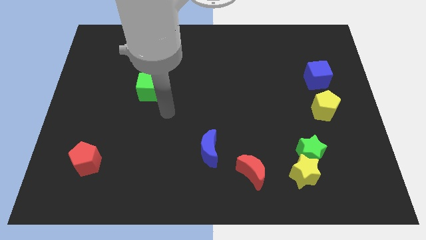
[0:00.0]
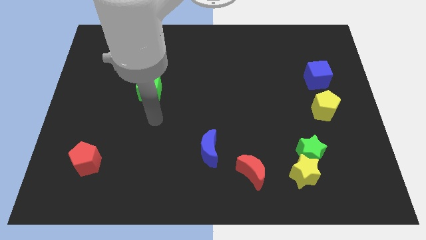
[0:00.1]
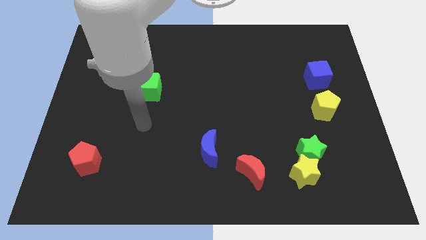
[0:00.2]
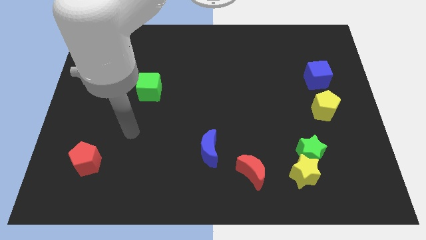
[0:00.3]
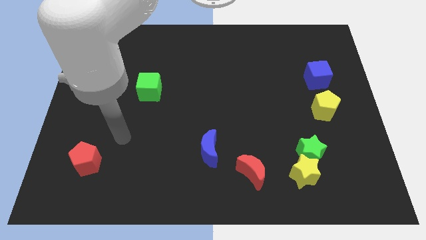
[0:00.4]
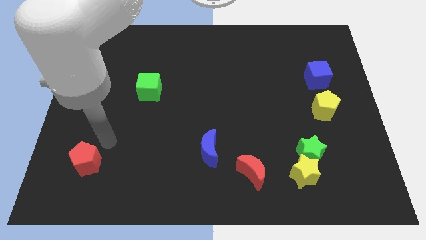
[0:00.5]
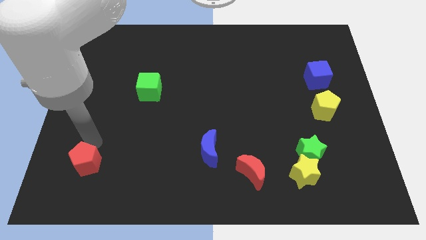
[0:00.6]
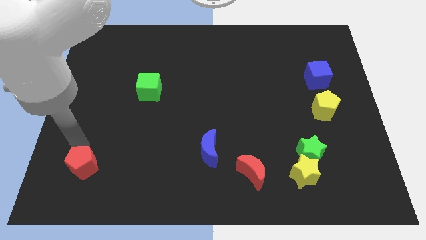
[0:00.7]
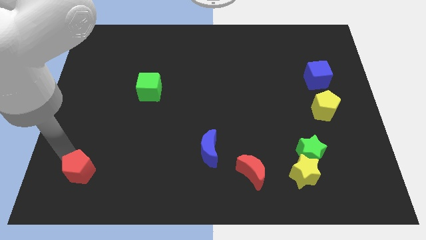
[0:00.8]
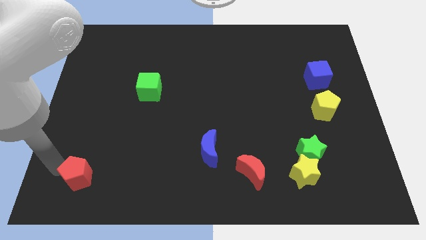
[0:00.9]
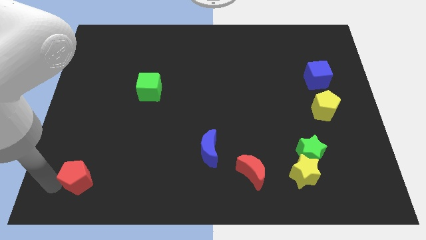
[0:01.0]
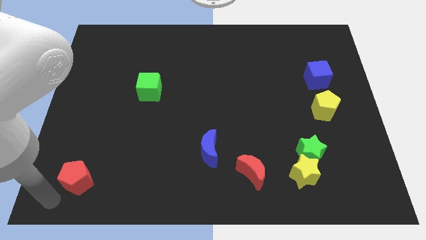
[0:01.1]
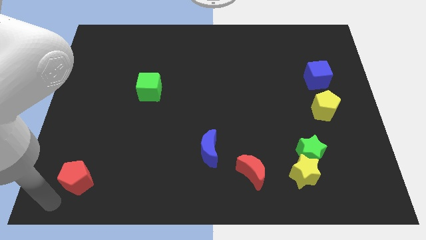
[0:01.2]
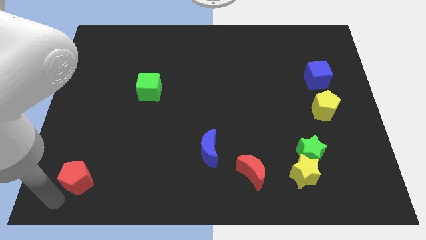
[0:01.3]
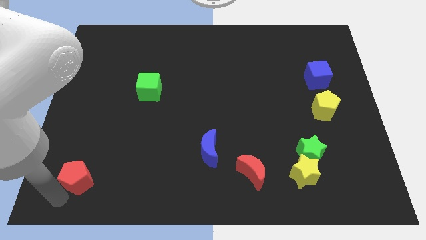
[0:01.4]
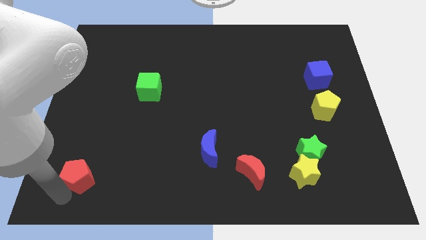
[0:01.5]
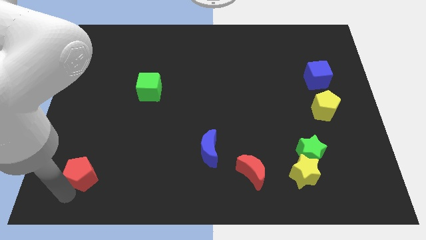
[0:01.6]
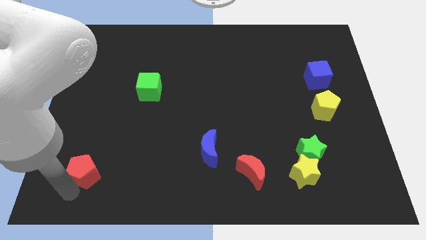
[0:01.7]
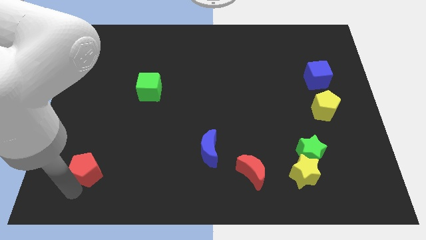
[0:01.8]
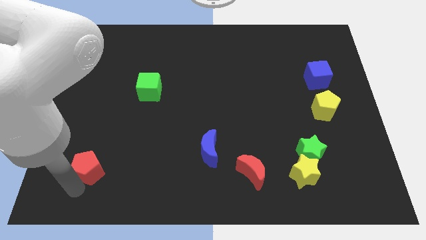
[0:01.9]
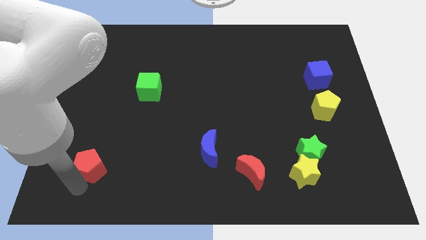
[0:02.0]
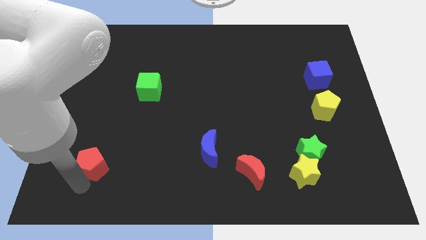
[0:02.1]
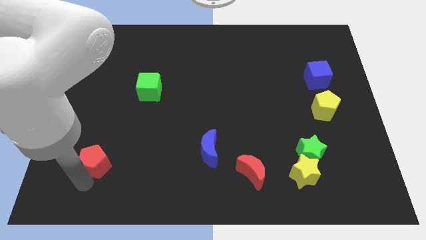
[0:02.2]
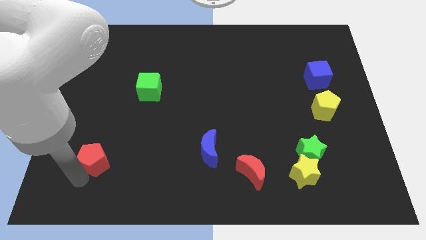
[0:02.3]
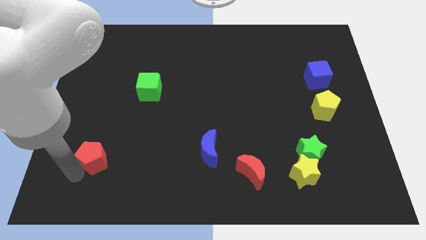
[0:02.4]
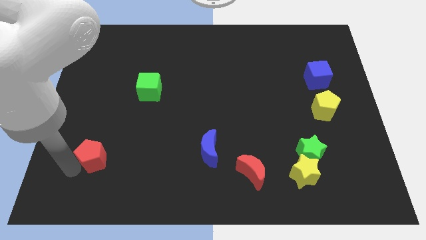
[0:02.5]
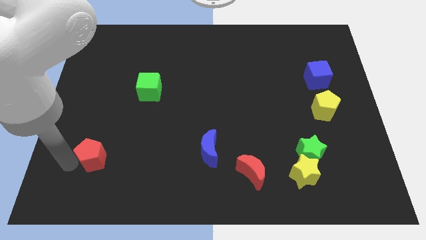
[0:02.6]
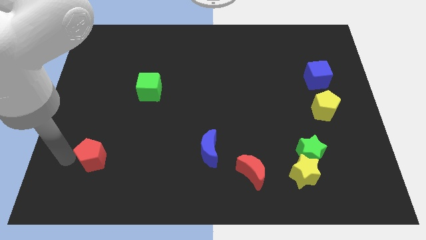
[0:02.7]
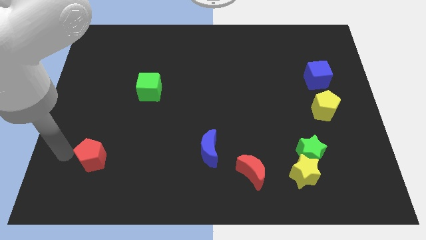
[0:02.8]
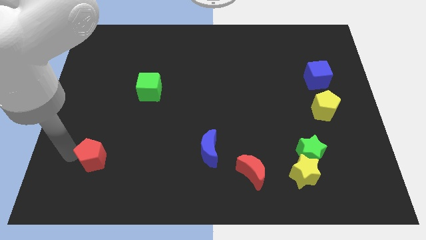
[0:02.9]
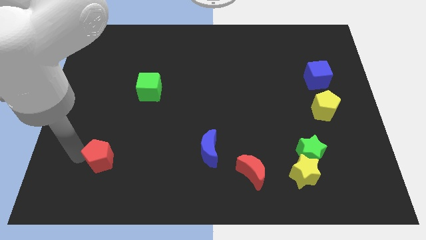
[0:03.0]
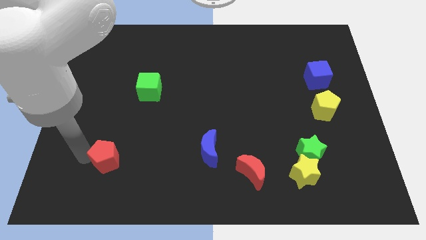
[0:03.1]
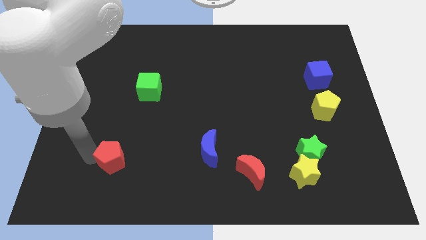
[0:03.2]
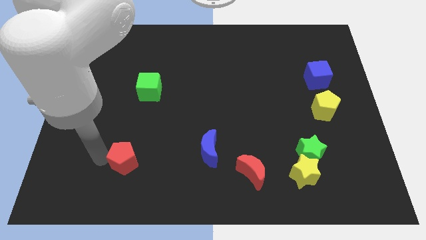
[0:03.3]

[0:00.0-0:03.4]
slightly push the red pentagon right

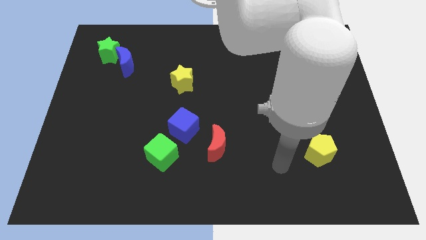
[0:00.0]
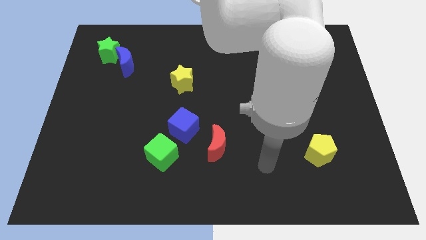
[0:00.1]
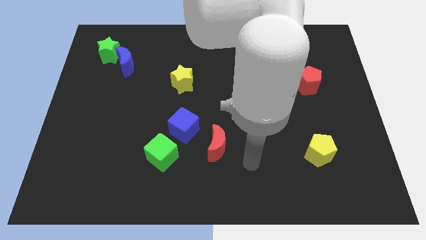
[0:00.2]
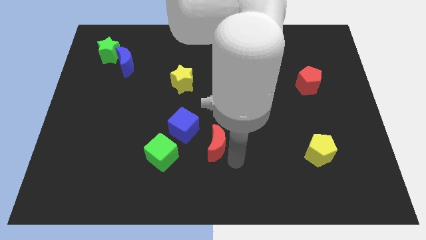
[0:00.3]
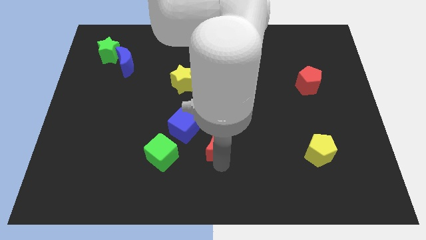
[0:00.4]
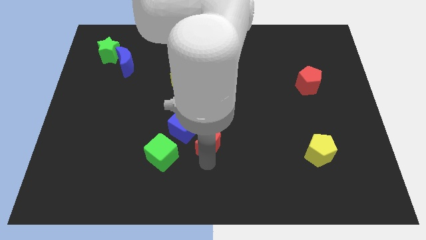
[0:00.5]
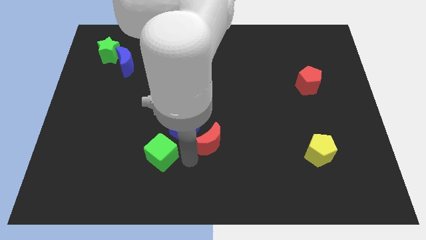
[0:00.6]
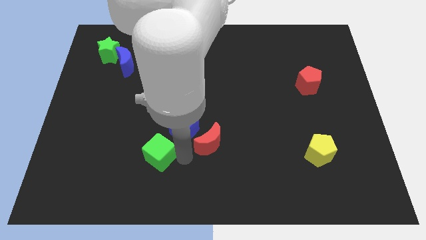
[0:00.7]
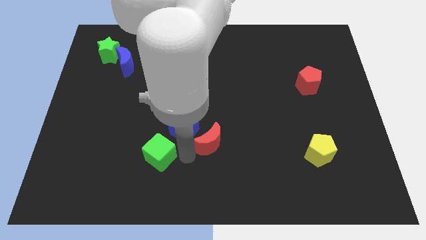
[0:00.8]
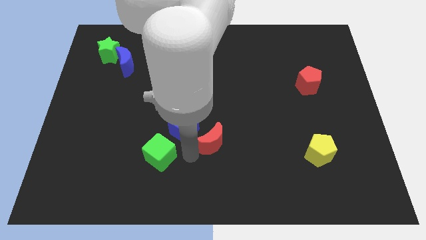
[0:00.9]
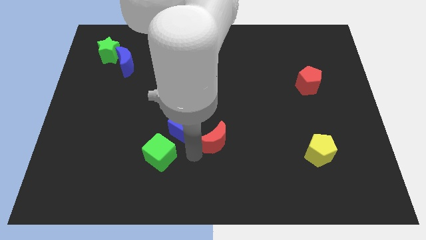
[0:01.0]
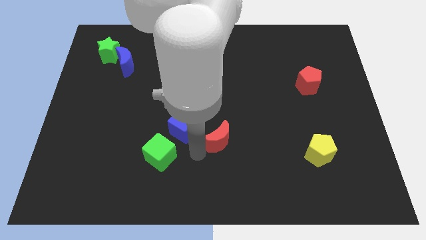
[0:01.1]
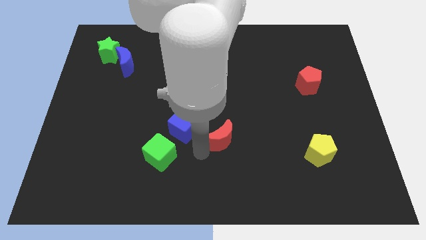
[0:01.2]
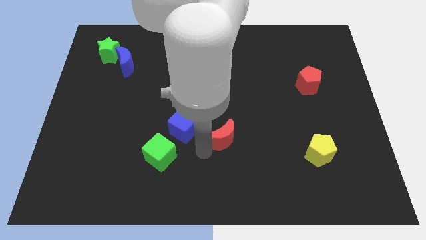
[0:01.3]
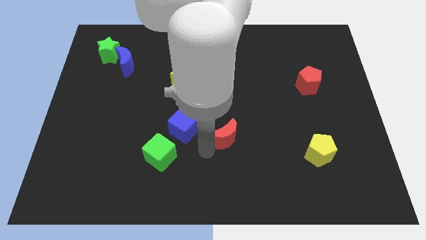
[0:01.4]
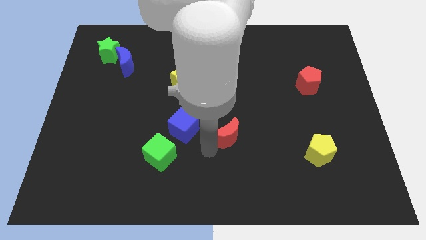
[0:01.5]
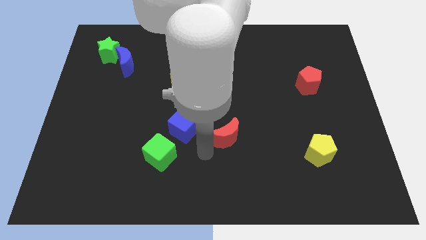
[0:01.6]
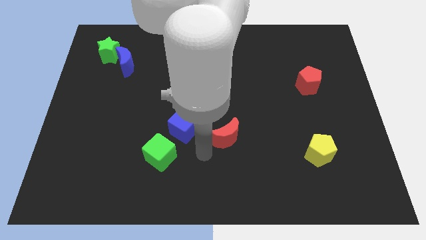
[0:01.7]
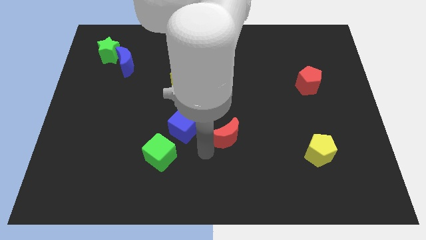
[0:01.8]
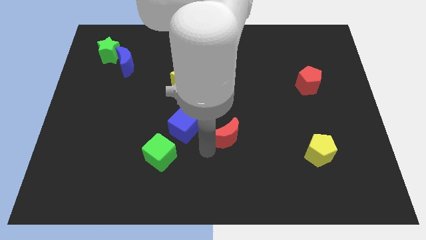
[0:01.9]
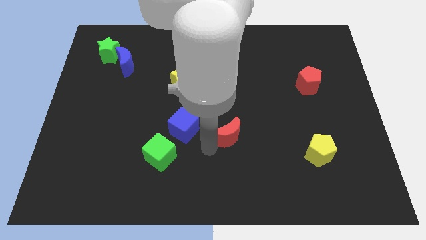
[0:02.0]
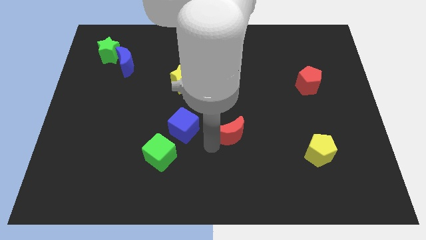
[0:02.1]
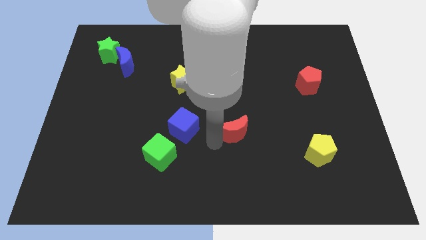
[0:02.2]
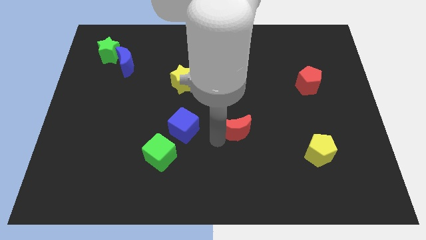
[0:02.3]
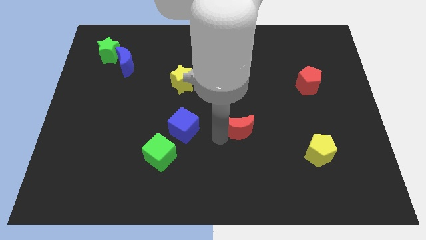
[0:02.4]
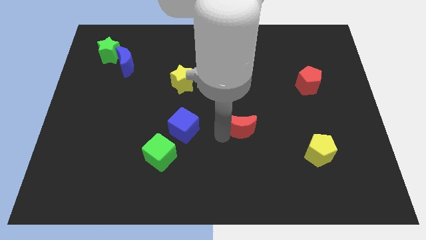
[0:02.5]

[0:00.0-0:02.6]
slightly move the red moon upwards and right

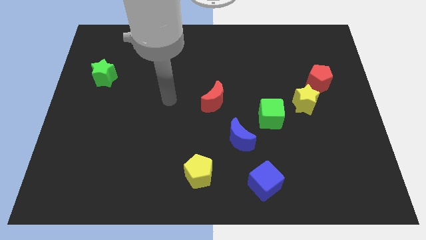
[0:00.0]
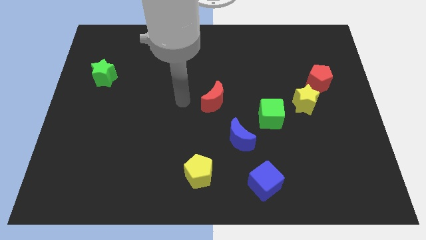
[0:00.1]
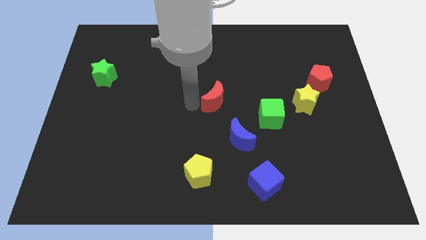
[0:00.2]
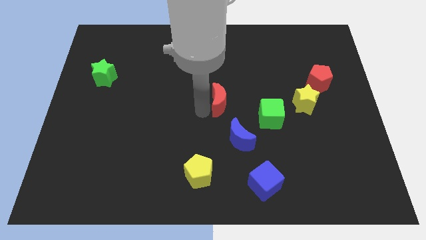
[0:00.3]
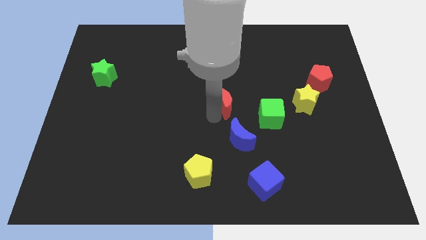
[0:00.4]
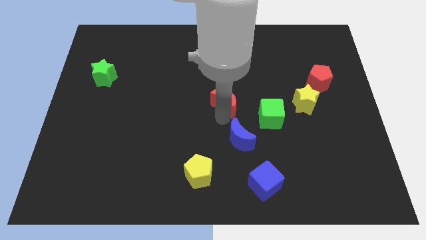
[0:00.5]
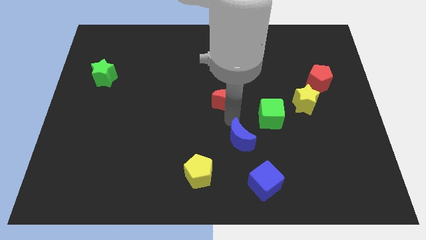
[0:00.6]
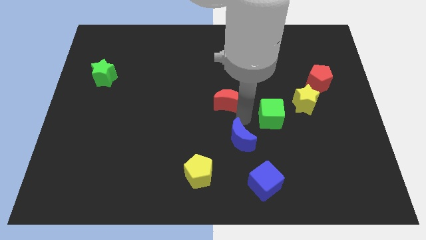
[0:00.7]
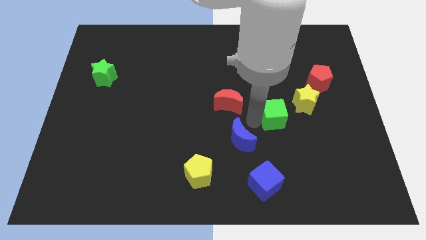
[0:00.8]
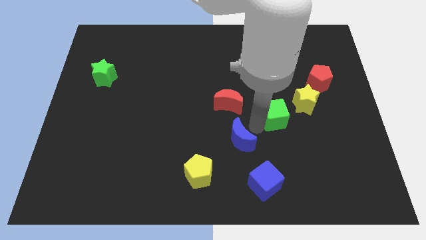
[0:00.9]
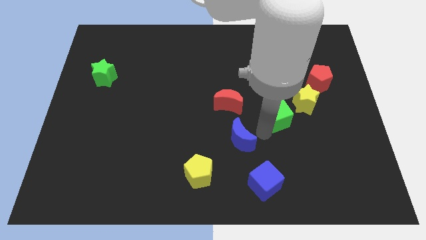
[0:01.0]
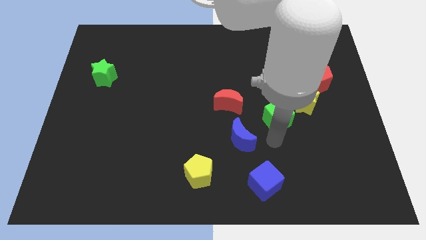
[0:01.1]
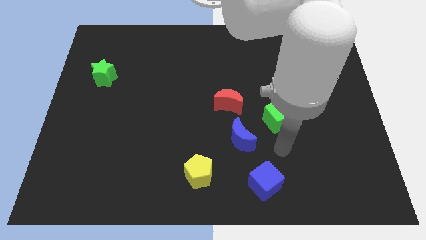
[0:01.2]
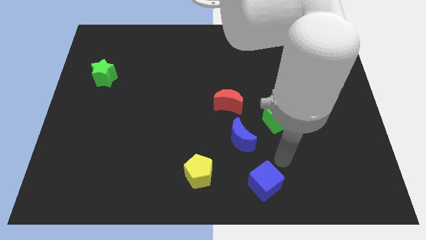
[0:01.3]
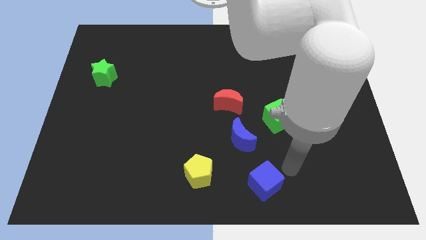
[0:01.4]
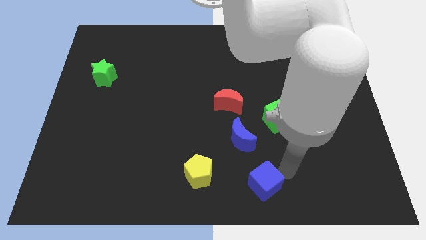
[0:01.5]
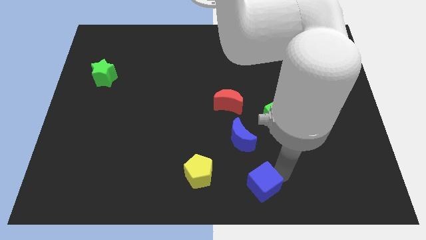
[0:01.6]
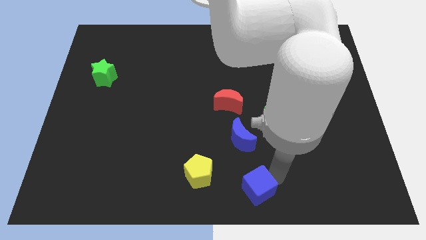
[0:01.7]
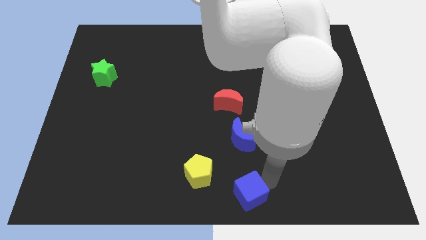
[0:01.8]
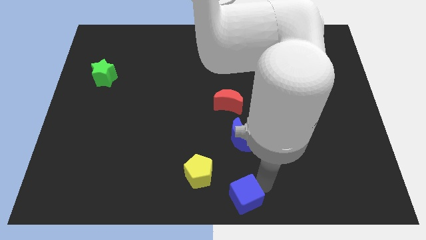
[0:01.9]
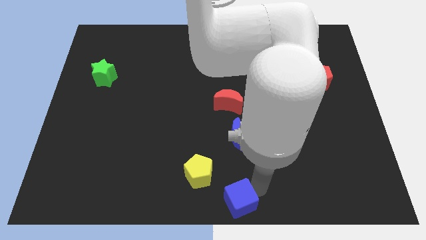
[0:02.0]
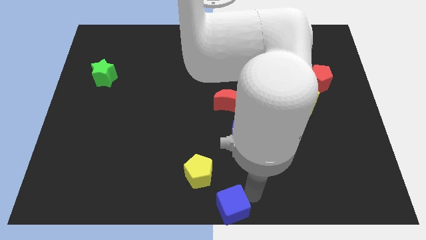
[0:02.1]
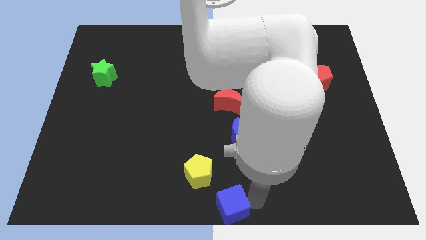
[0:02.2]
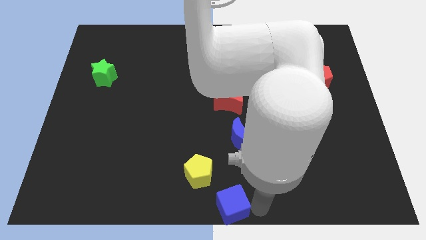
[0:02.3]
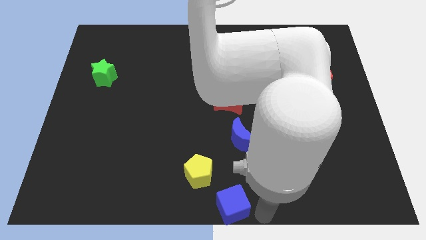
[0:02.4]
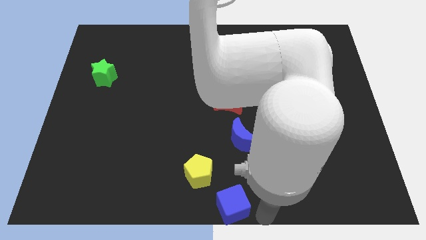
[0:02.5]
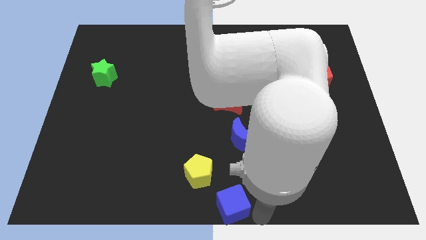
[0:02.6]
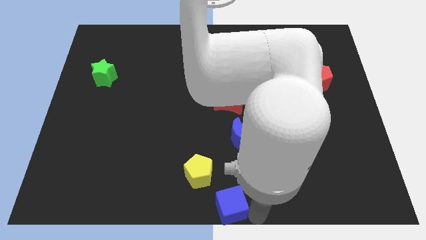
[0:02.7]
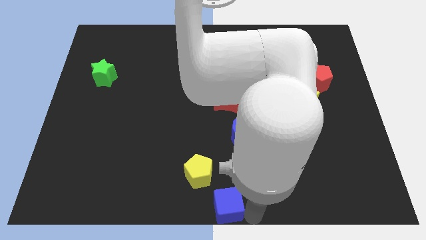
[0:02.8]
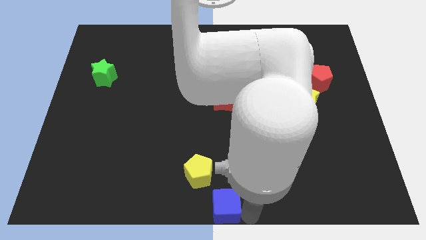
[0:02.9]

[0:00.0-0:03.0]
move the blue cube left somewhat
